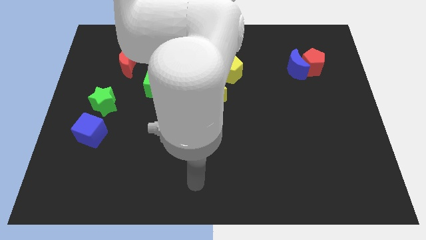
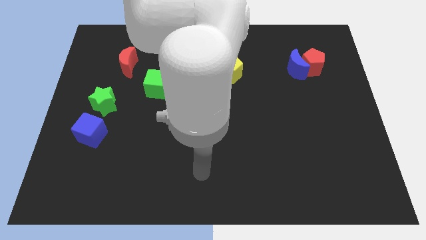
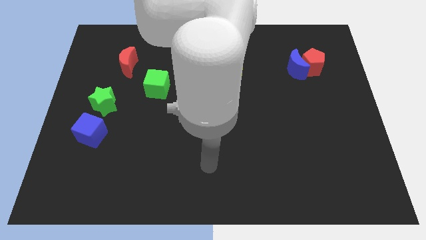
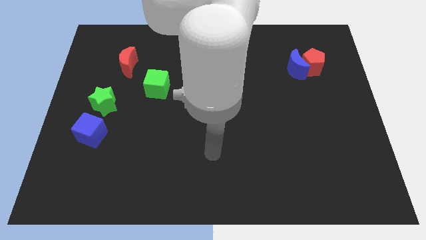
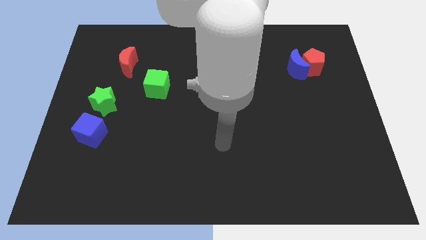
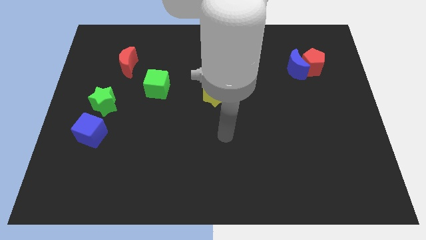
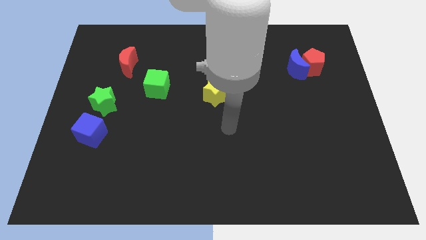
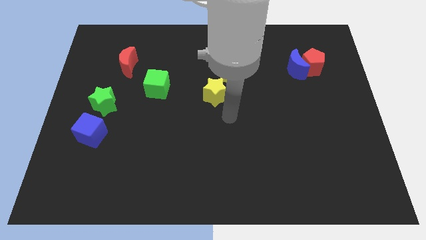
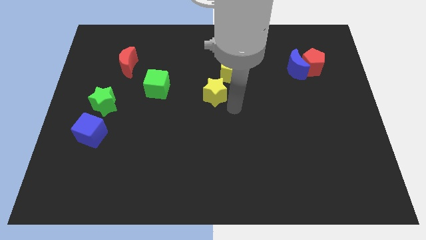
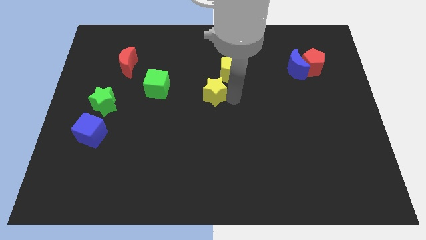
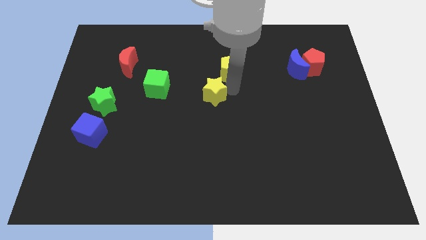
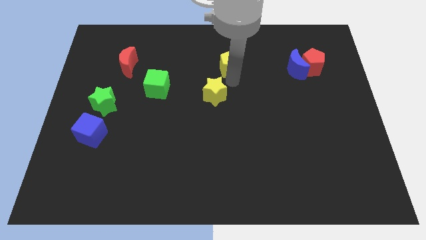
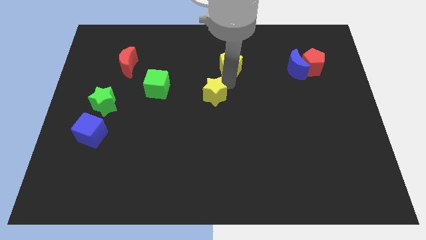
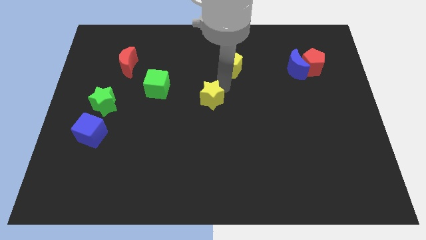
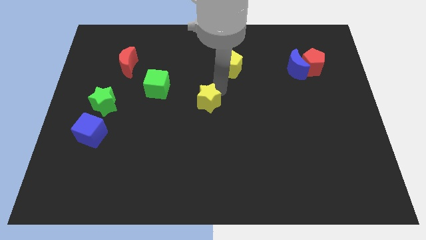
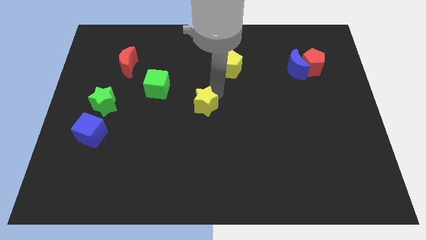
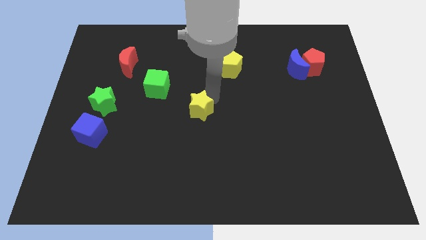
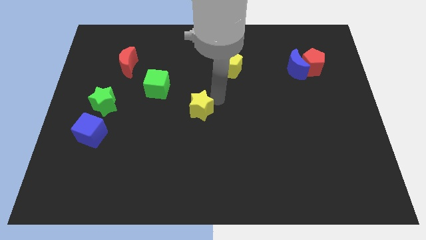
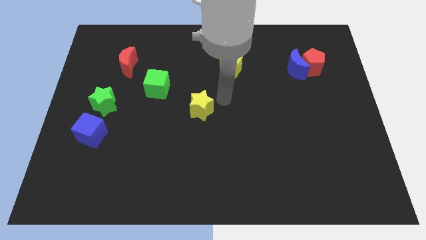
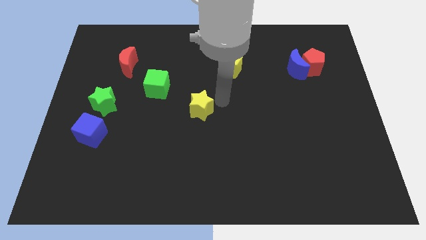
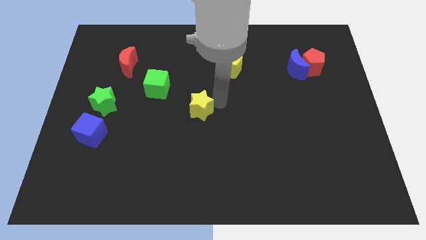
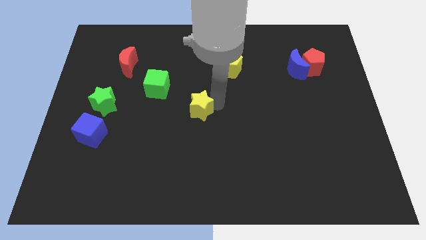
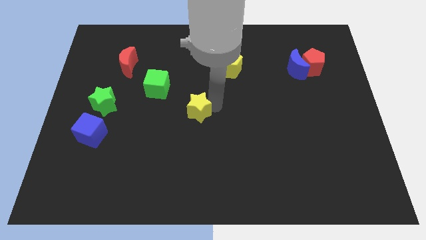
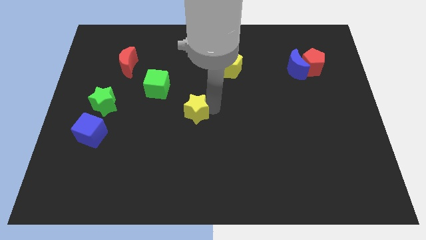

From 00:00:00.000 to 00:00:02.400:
push the yellow star diagonally down and left slightly

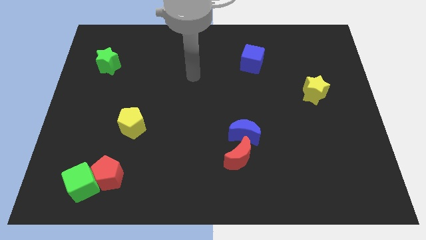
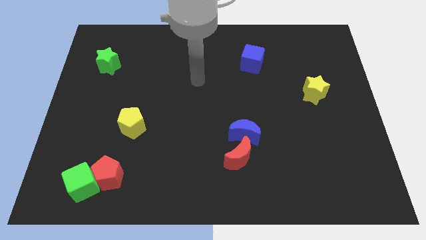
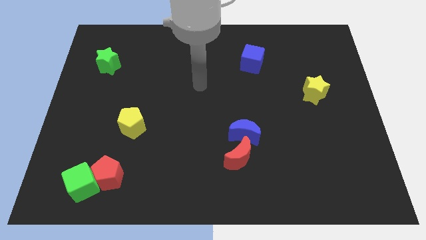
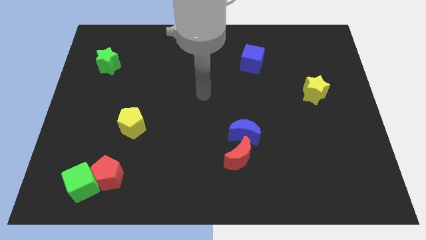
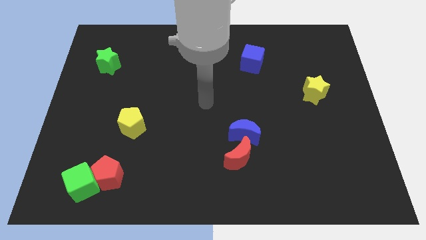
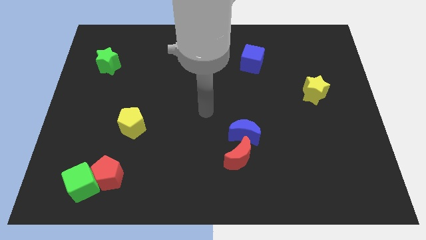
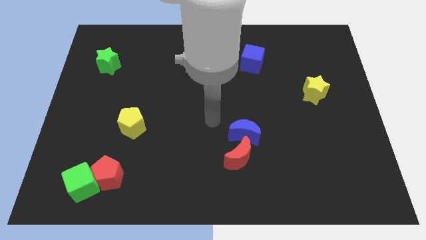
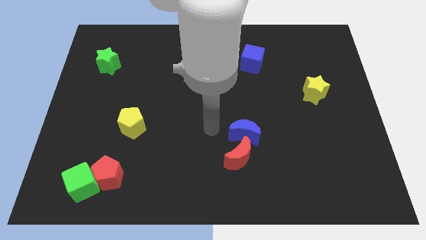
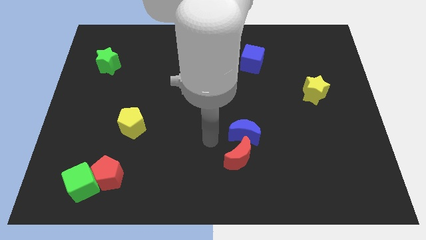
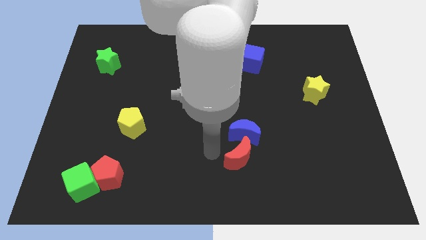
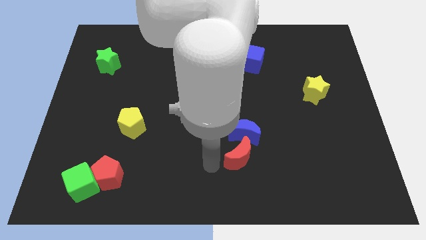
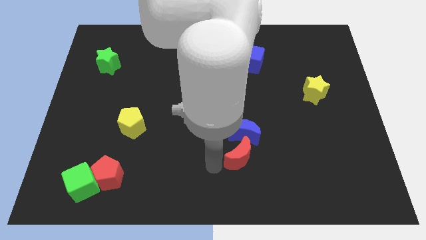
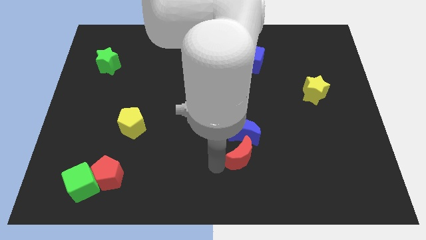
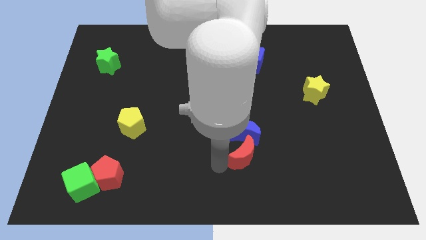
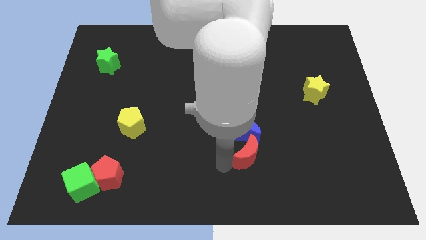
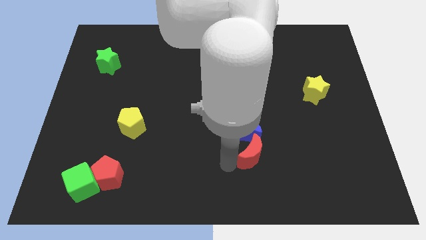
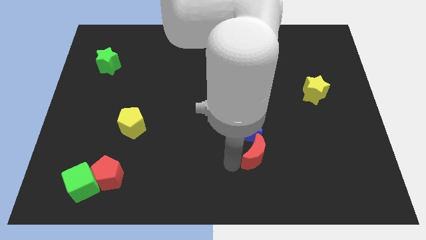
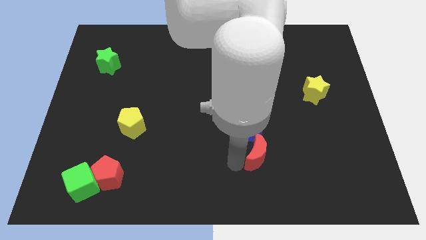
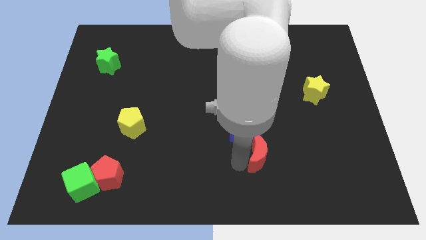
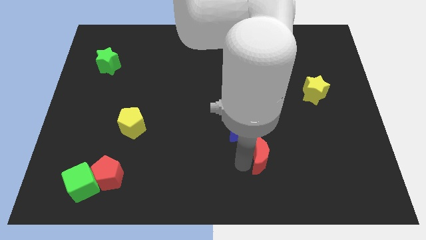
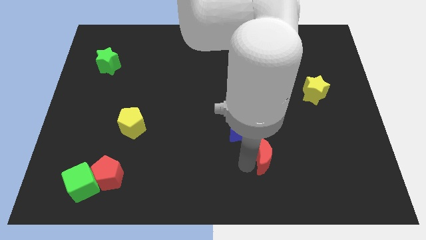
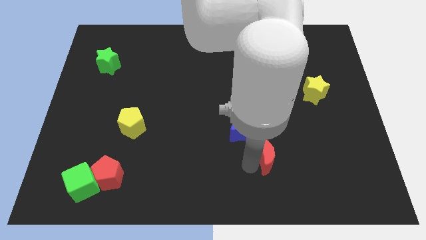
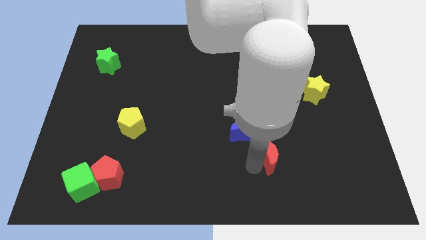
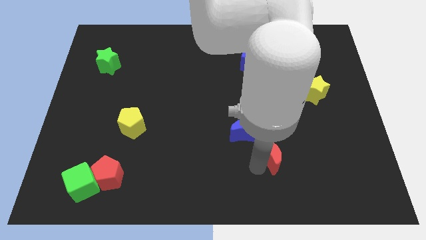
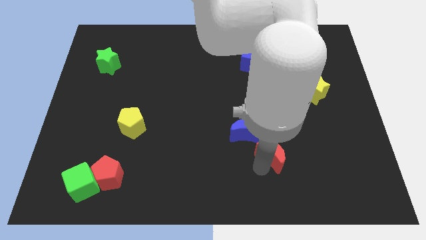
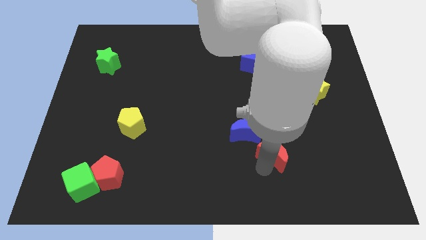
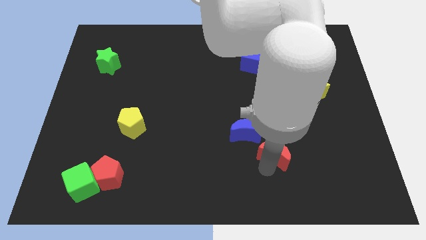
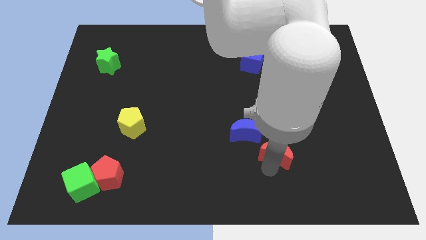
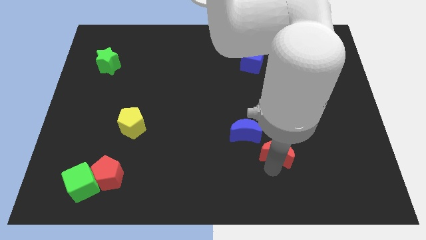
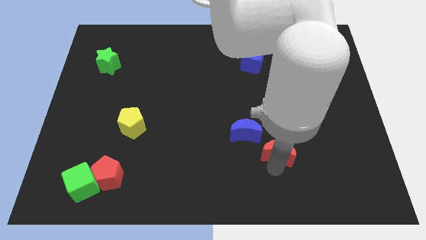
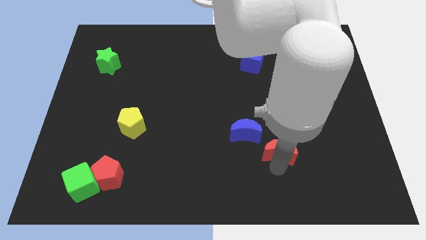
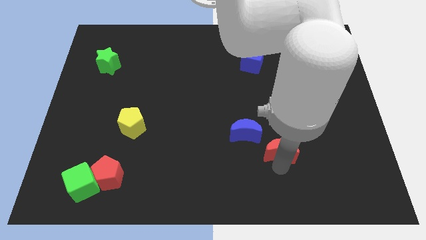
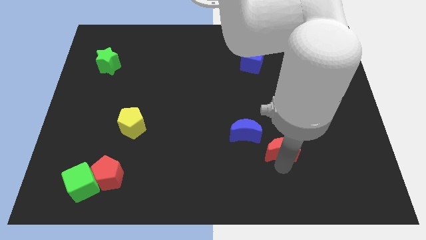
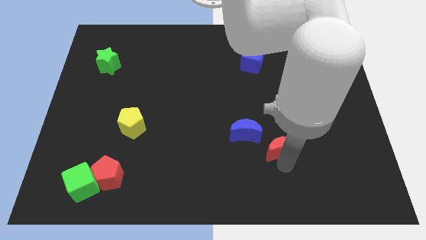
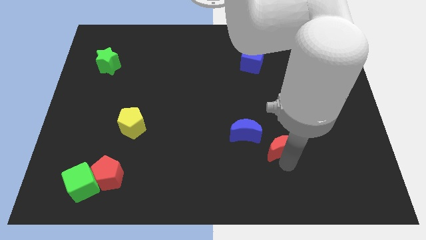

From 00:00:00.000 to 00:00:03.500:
move the red moon diagonally up and right a little

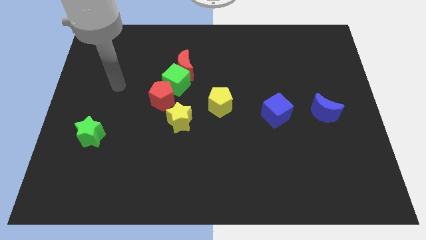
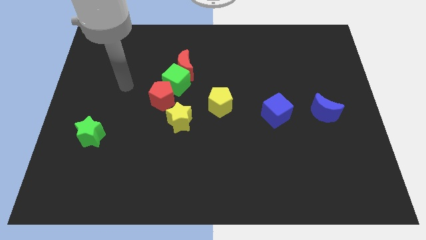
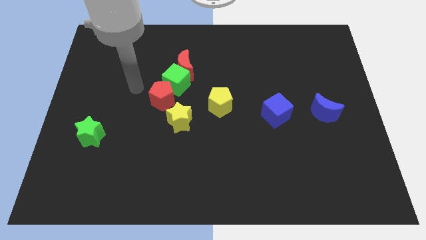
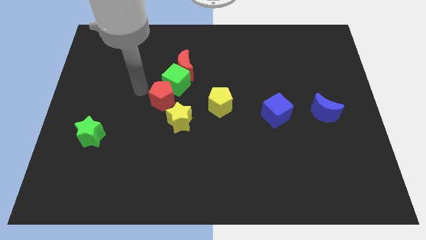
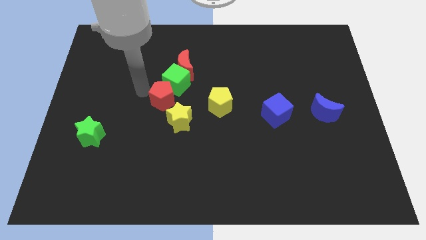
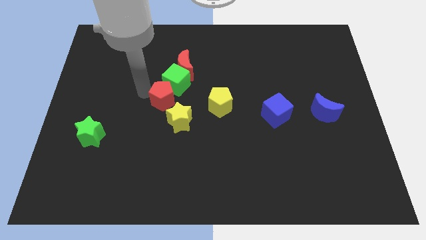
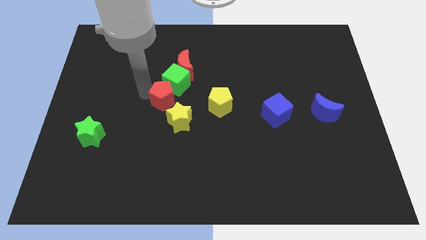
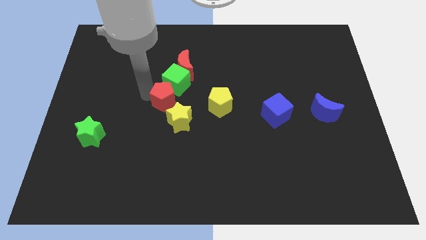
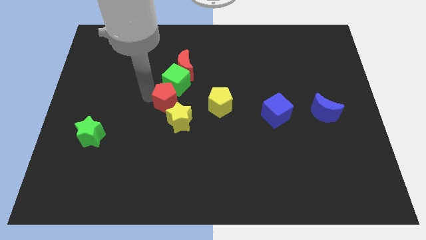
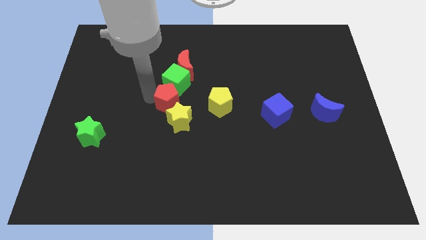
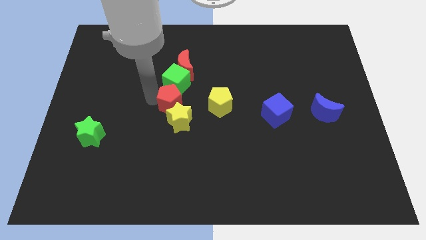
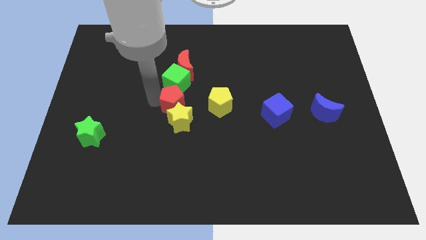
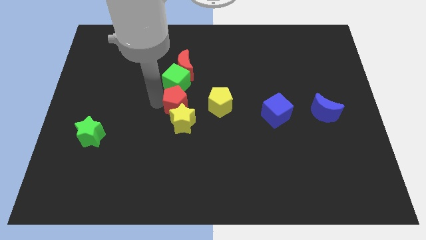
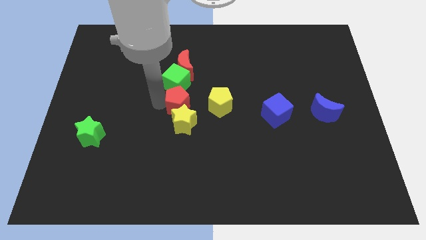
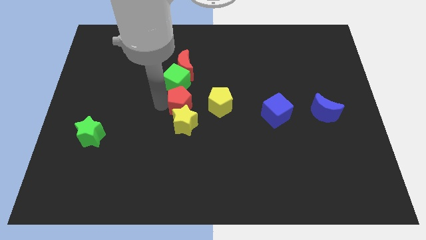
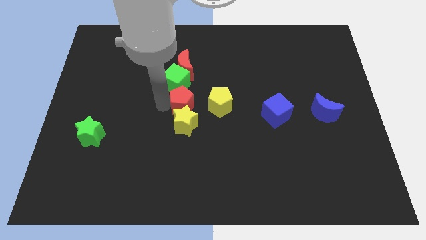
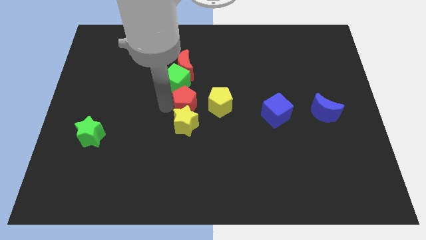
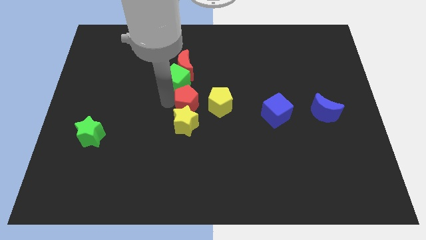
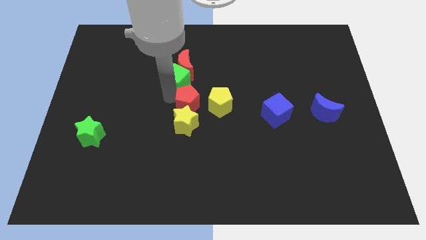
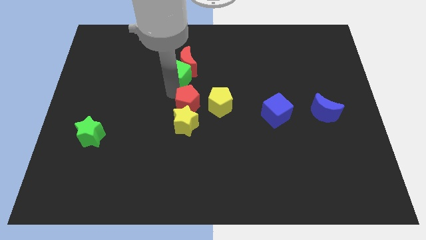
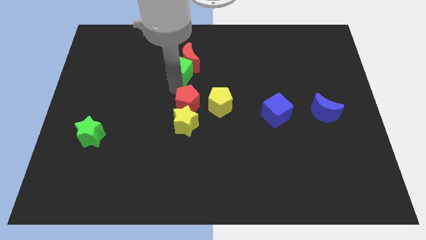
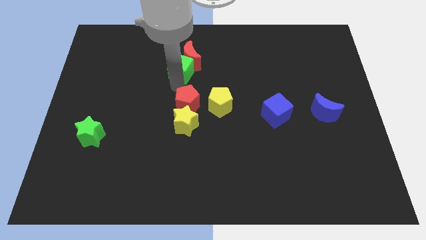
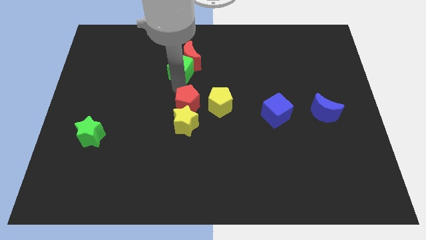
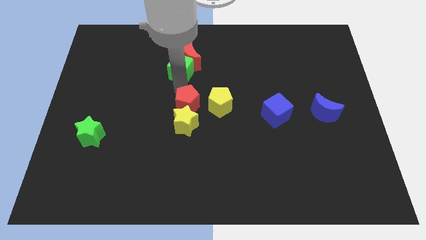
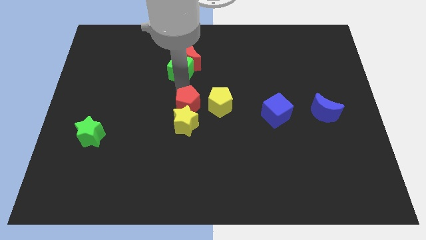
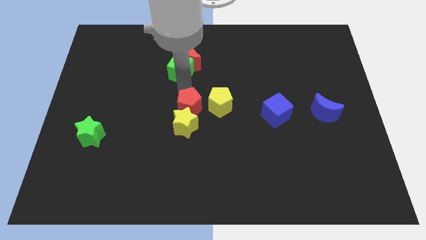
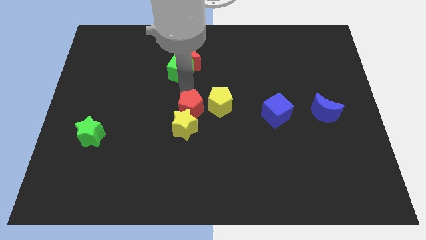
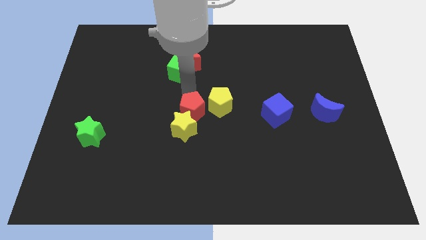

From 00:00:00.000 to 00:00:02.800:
move the red pentagon downwards and then to the right slightly
